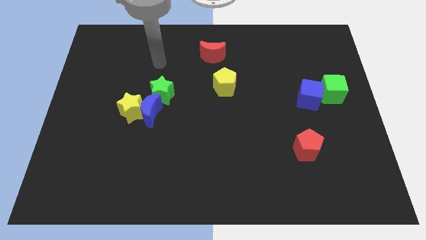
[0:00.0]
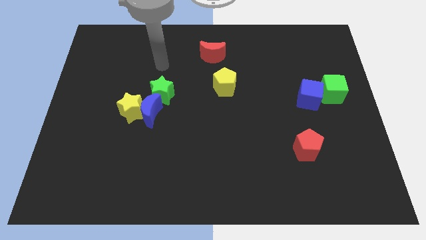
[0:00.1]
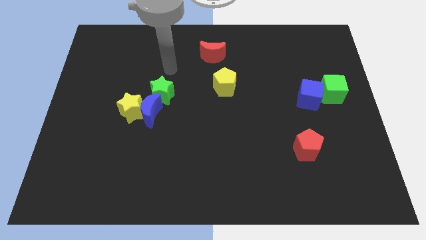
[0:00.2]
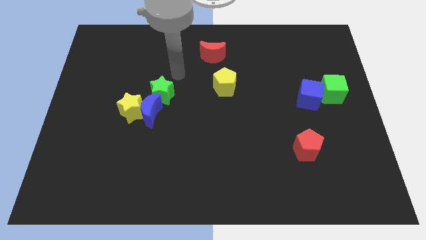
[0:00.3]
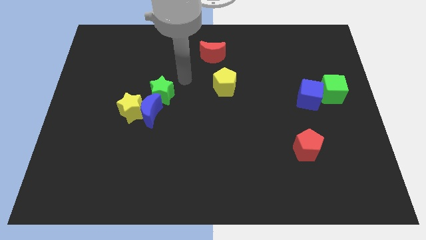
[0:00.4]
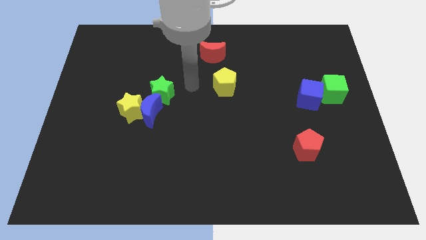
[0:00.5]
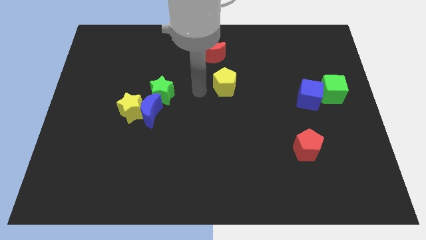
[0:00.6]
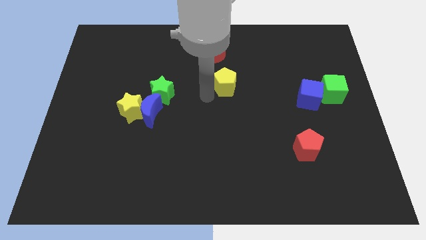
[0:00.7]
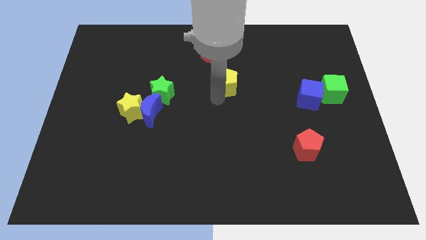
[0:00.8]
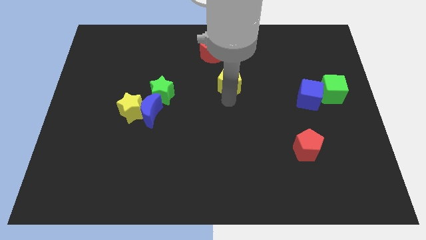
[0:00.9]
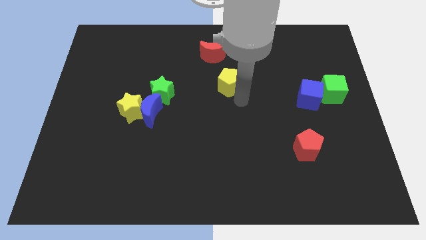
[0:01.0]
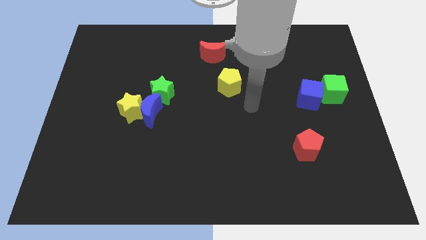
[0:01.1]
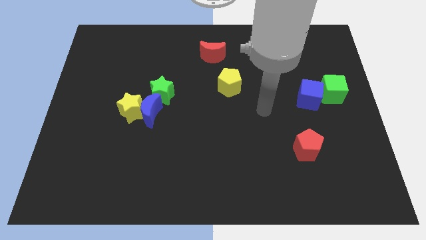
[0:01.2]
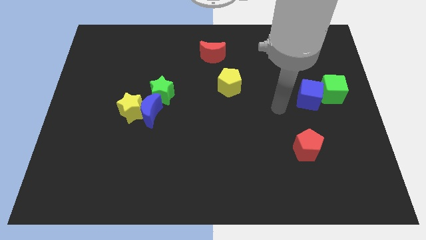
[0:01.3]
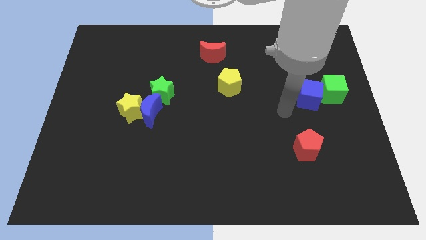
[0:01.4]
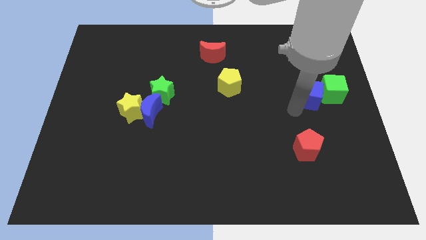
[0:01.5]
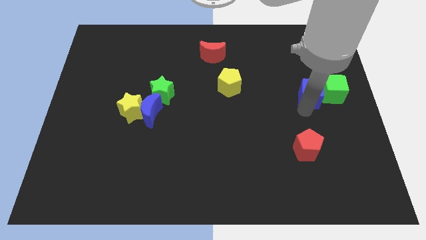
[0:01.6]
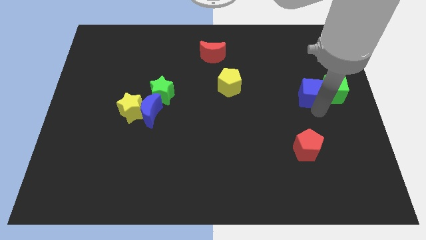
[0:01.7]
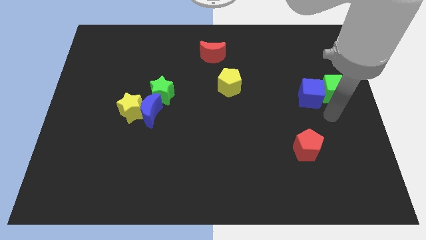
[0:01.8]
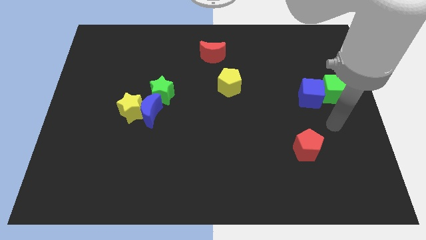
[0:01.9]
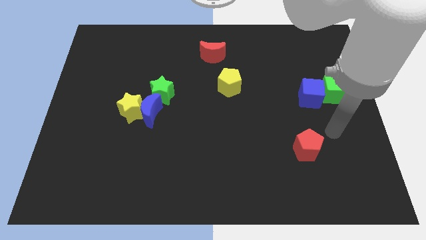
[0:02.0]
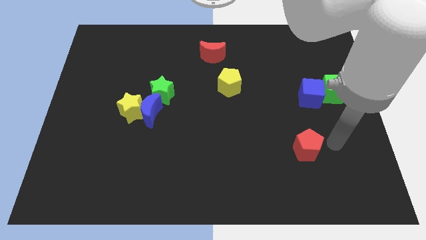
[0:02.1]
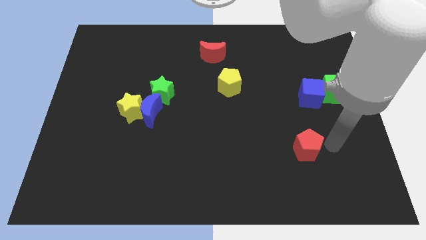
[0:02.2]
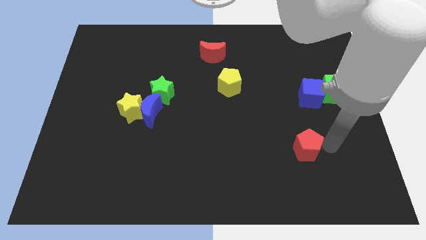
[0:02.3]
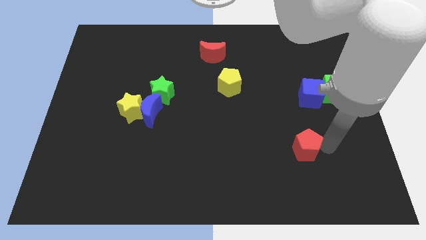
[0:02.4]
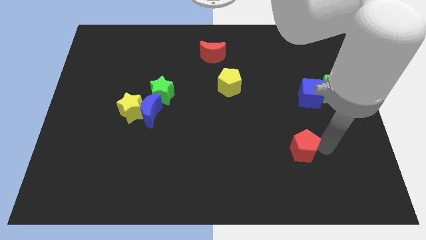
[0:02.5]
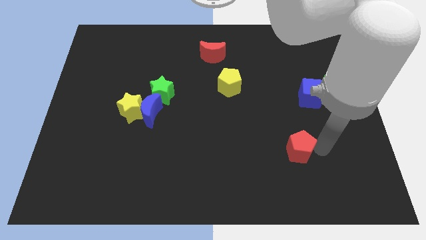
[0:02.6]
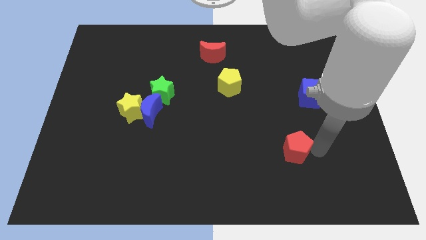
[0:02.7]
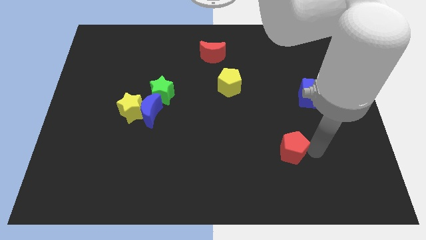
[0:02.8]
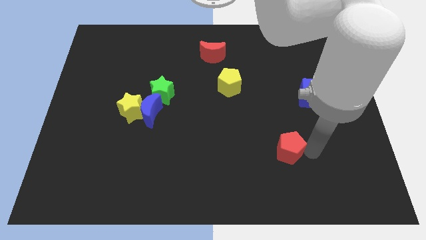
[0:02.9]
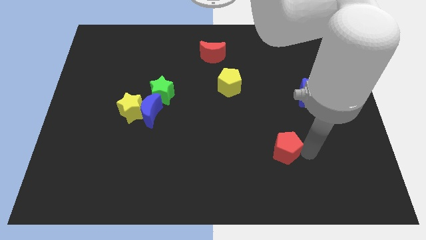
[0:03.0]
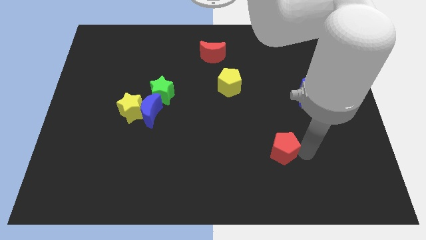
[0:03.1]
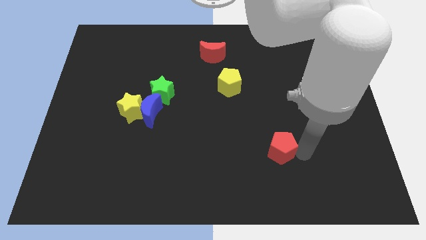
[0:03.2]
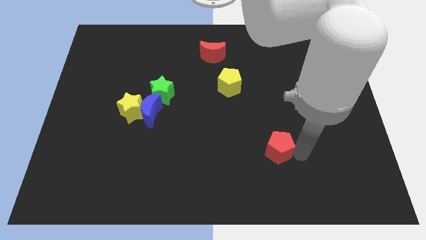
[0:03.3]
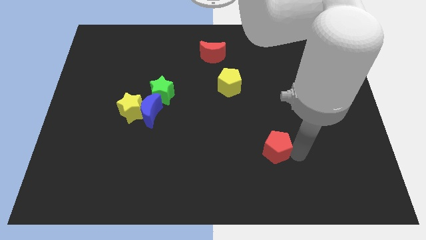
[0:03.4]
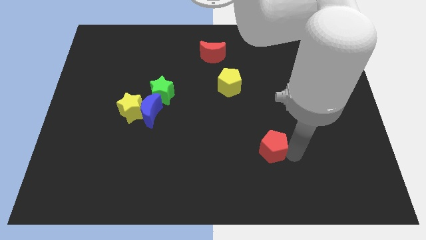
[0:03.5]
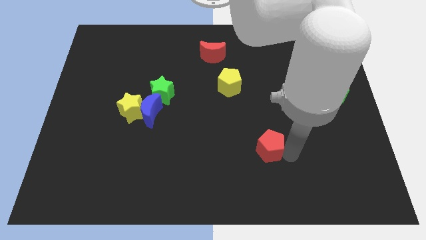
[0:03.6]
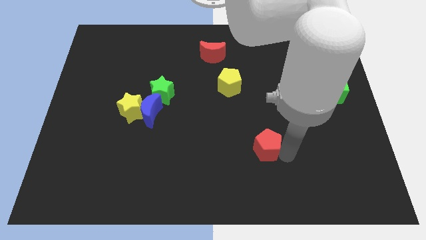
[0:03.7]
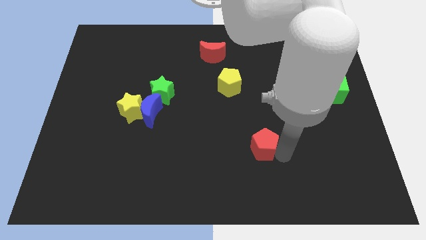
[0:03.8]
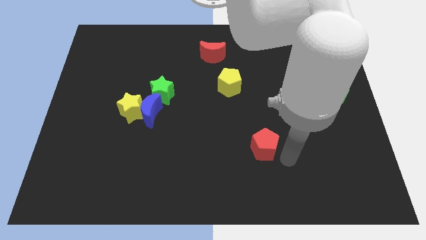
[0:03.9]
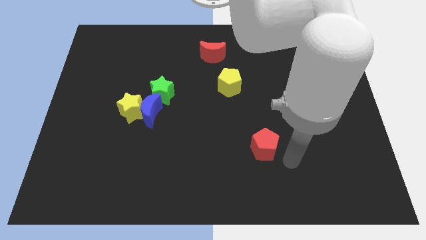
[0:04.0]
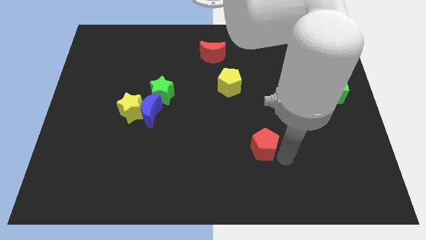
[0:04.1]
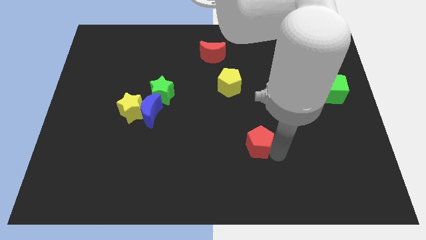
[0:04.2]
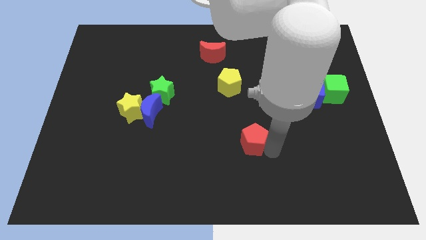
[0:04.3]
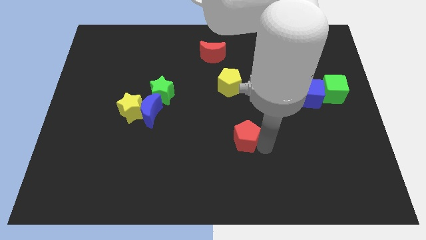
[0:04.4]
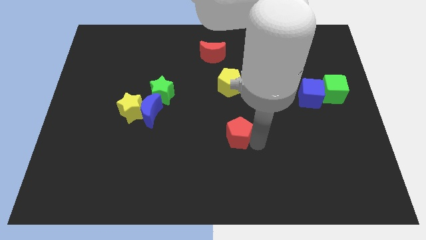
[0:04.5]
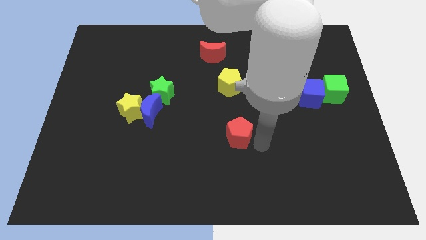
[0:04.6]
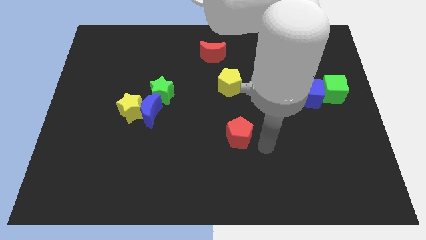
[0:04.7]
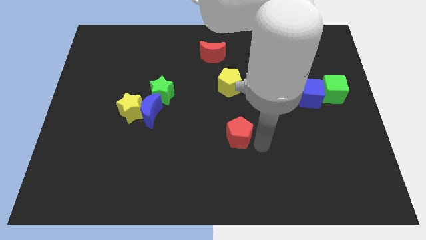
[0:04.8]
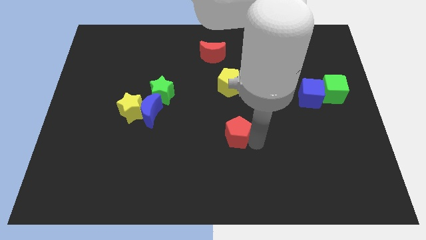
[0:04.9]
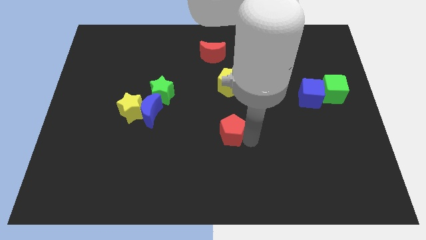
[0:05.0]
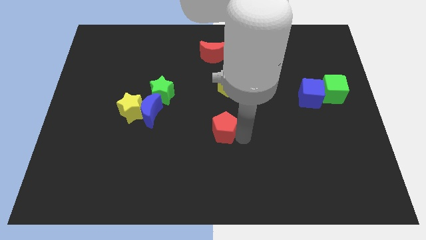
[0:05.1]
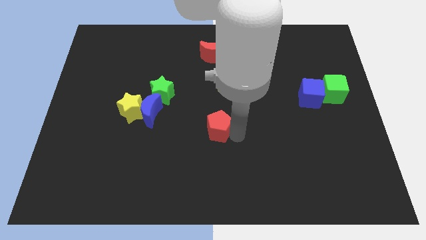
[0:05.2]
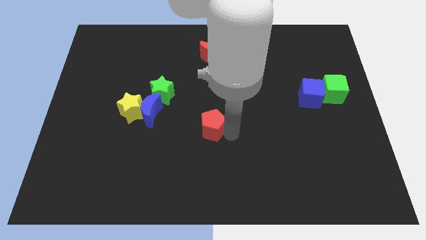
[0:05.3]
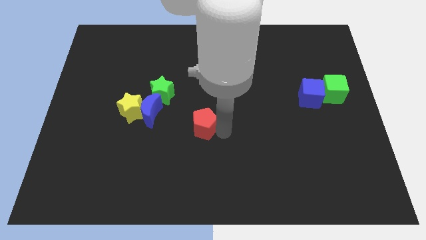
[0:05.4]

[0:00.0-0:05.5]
put the red pentagon just right of the blue moon
